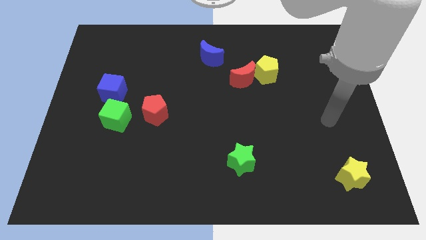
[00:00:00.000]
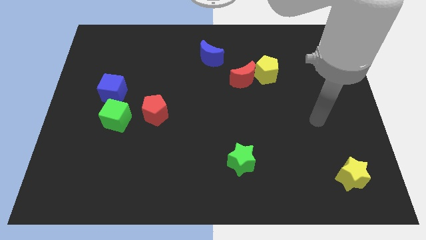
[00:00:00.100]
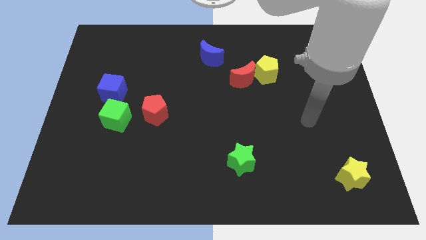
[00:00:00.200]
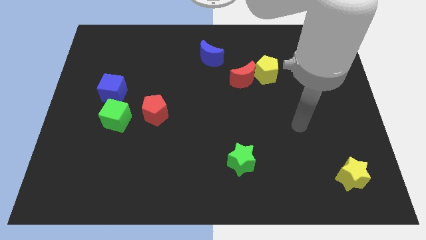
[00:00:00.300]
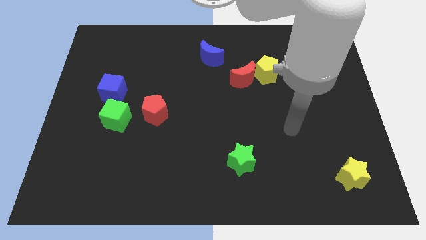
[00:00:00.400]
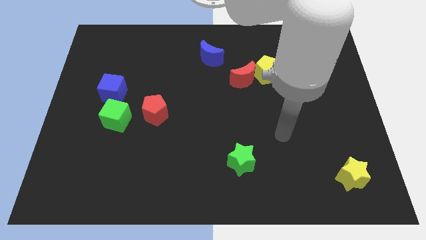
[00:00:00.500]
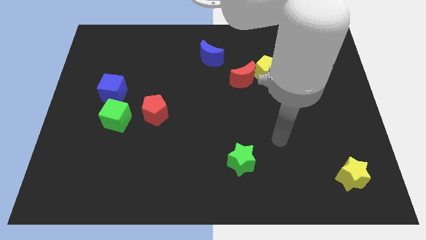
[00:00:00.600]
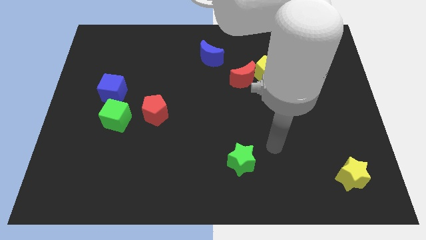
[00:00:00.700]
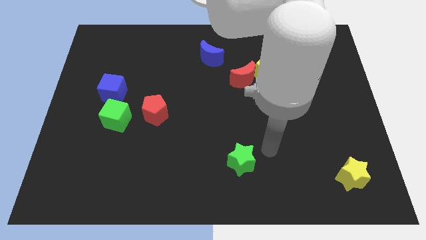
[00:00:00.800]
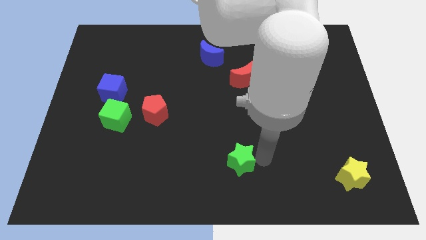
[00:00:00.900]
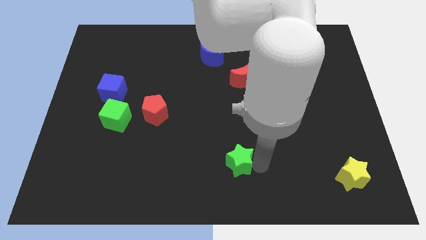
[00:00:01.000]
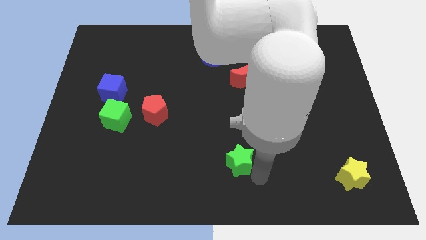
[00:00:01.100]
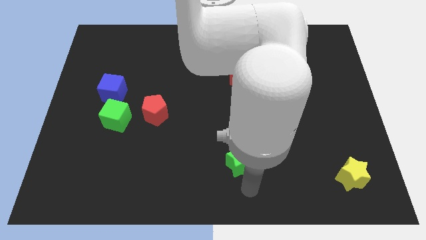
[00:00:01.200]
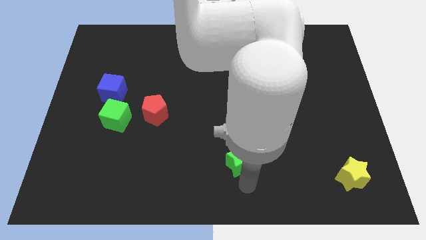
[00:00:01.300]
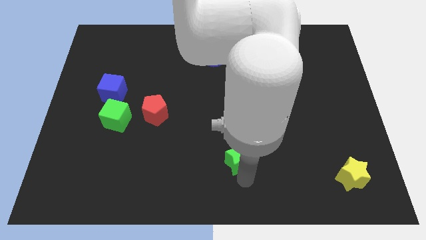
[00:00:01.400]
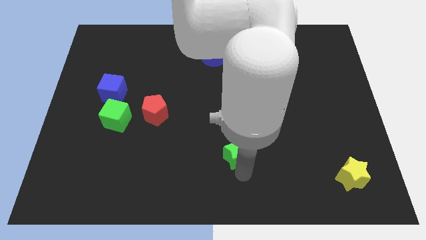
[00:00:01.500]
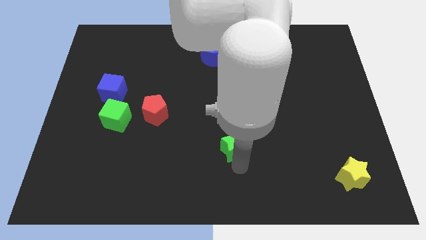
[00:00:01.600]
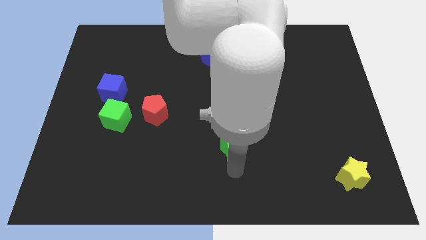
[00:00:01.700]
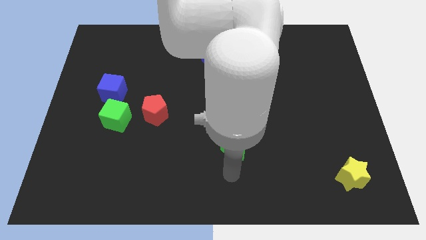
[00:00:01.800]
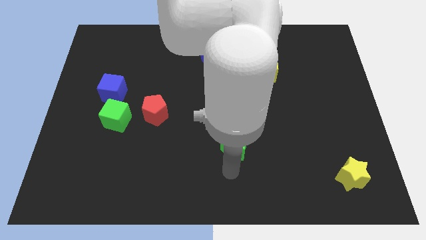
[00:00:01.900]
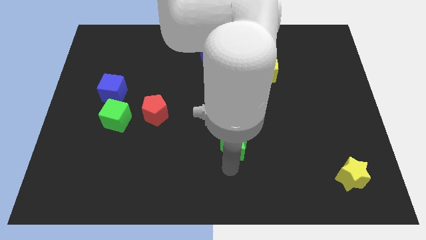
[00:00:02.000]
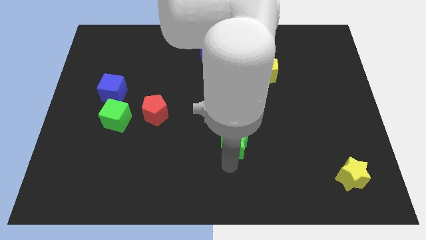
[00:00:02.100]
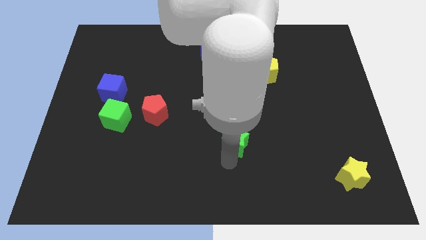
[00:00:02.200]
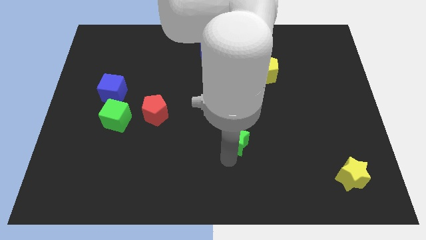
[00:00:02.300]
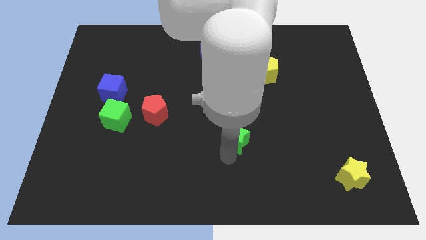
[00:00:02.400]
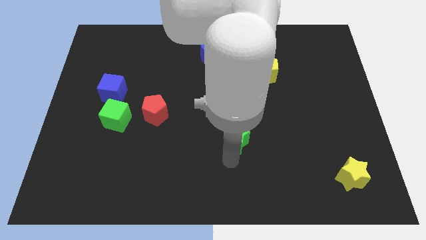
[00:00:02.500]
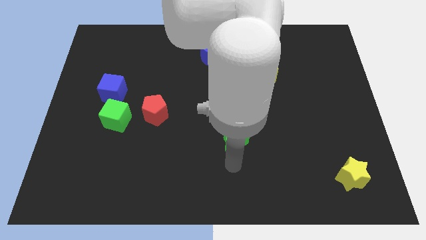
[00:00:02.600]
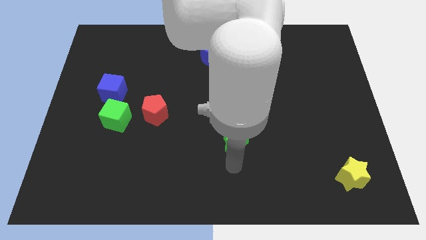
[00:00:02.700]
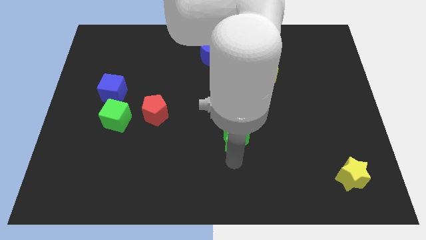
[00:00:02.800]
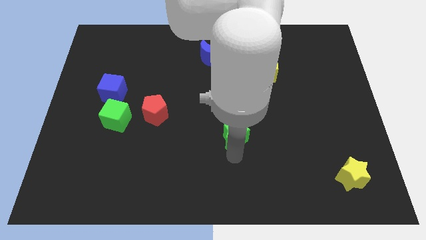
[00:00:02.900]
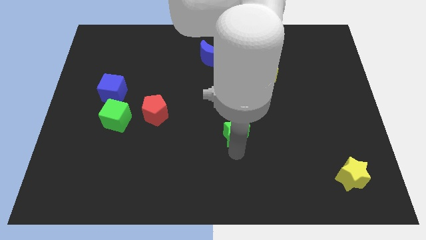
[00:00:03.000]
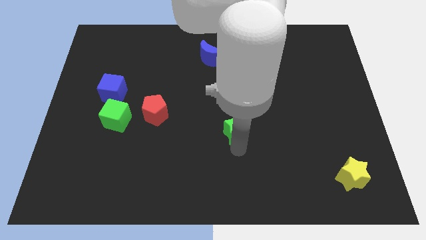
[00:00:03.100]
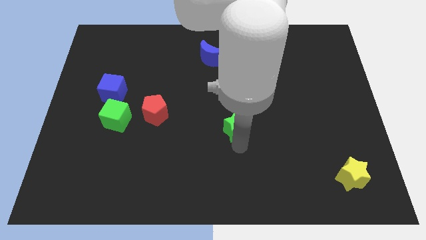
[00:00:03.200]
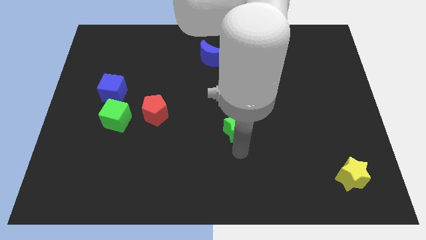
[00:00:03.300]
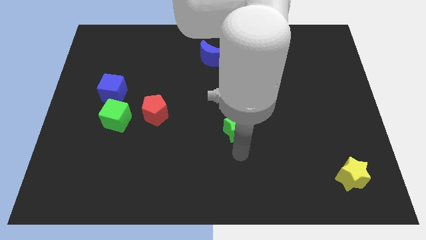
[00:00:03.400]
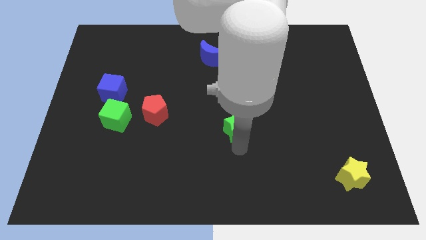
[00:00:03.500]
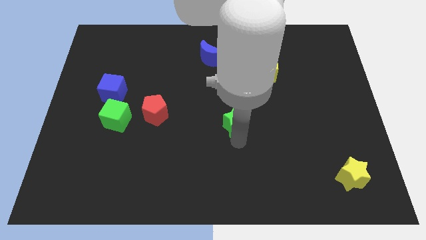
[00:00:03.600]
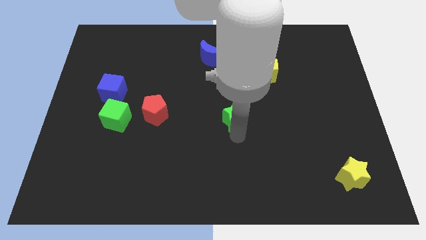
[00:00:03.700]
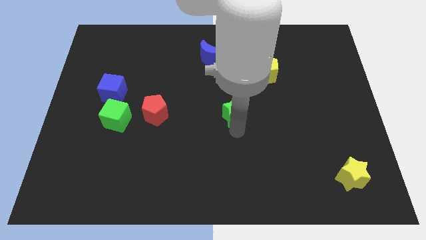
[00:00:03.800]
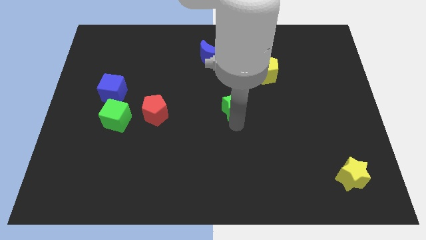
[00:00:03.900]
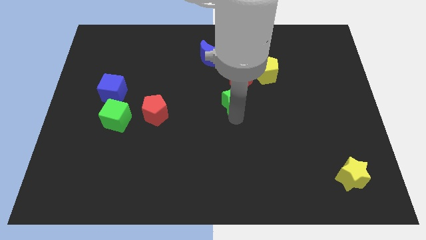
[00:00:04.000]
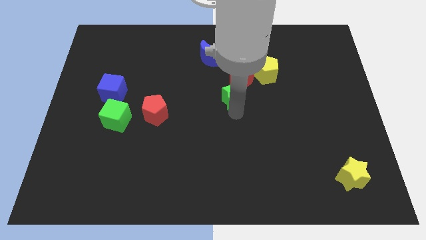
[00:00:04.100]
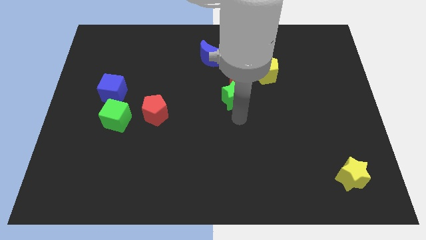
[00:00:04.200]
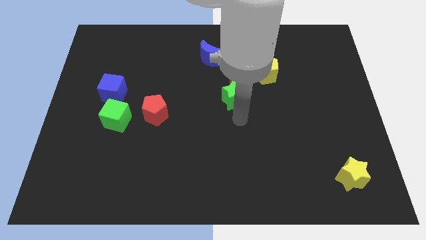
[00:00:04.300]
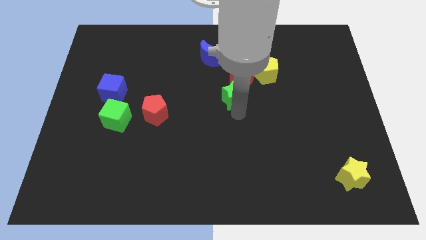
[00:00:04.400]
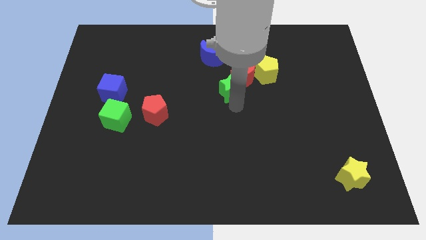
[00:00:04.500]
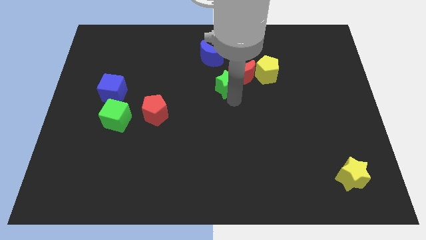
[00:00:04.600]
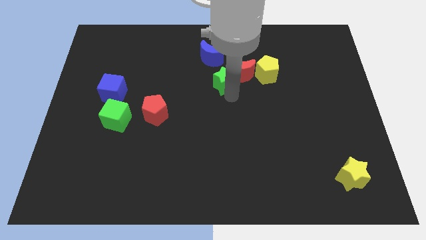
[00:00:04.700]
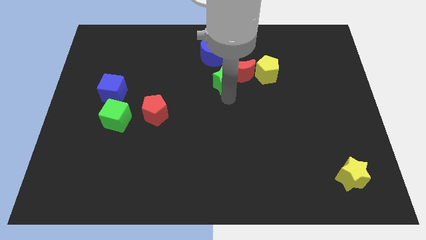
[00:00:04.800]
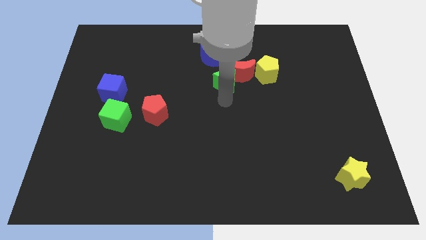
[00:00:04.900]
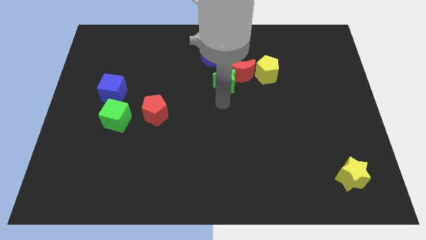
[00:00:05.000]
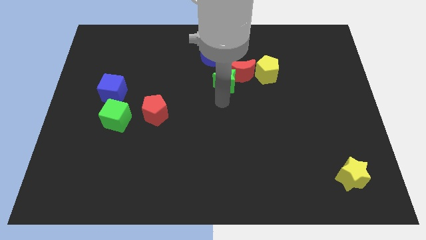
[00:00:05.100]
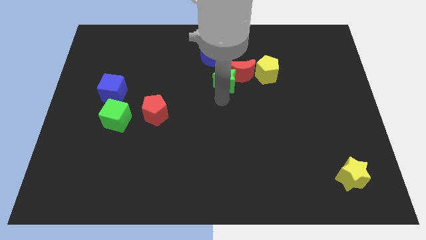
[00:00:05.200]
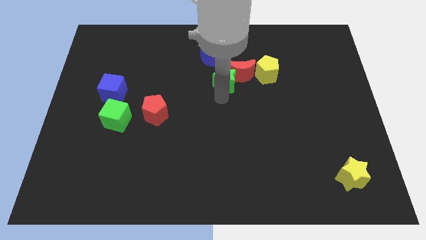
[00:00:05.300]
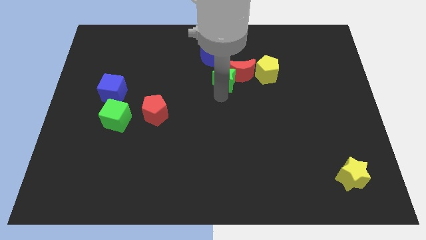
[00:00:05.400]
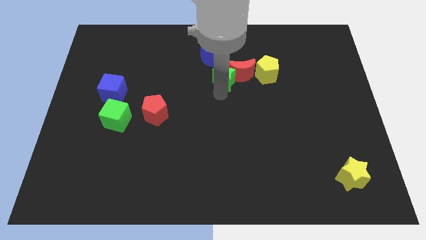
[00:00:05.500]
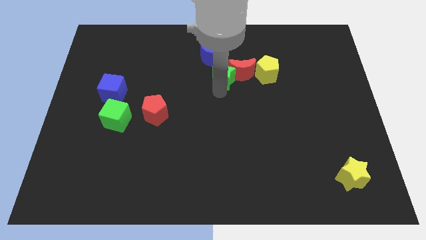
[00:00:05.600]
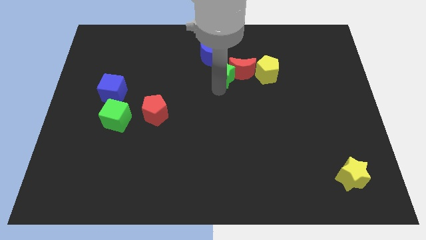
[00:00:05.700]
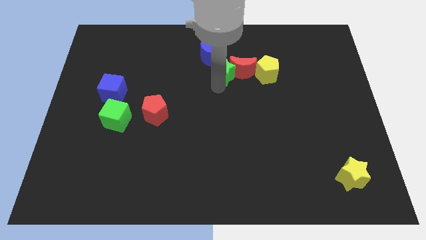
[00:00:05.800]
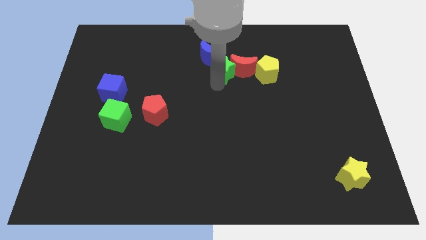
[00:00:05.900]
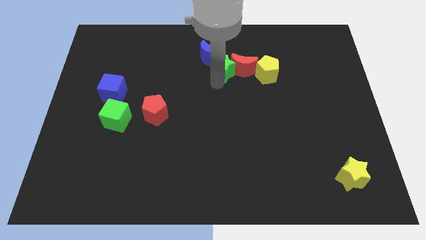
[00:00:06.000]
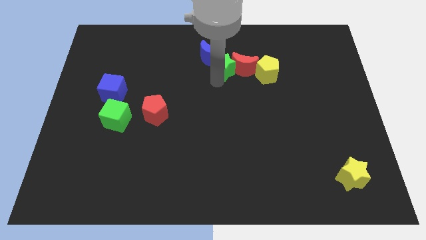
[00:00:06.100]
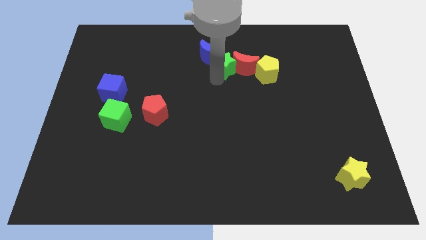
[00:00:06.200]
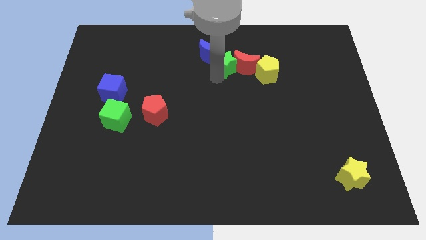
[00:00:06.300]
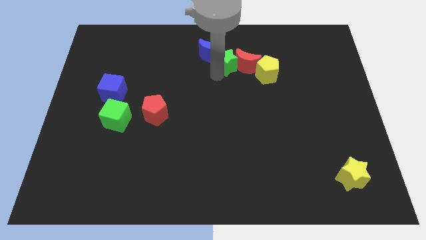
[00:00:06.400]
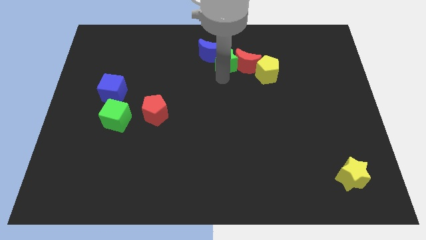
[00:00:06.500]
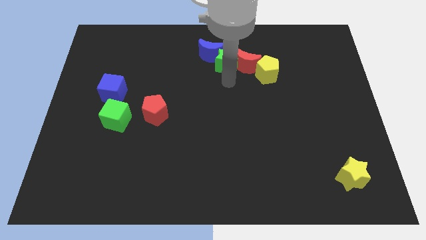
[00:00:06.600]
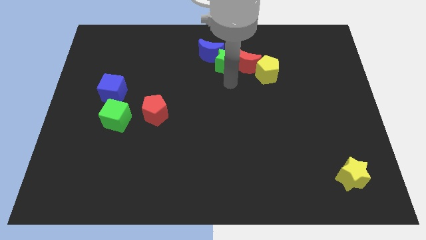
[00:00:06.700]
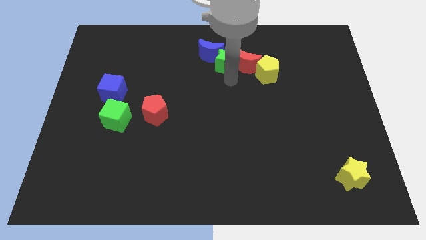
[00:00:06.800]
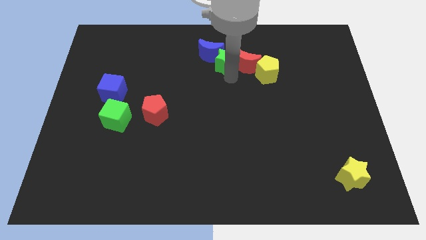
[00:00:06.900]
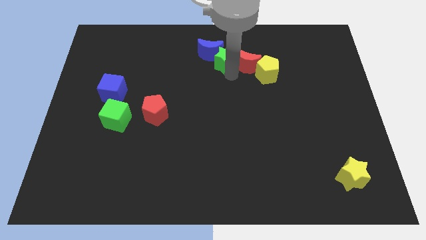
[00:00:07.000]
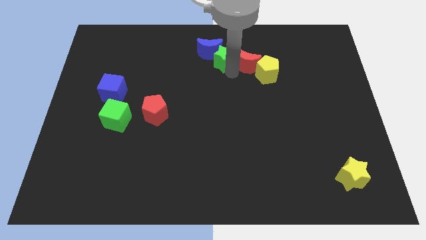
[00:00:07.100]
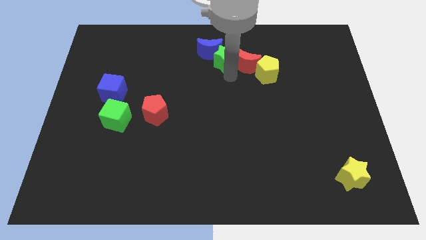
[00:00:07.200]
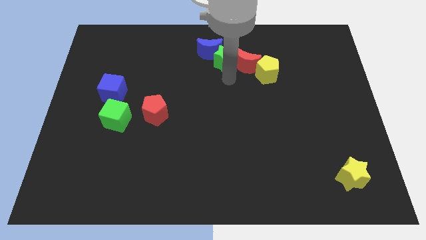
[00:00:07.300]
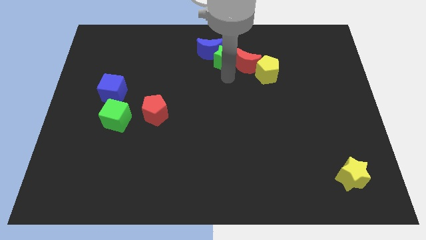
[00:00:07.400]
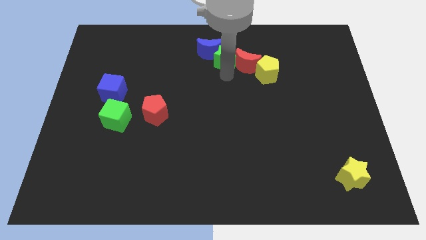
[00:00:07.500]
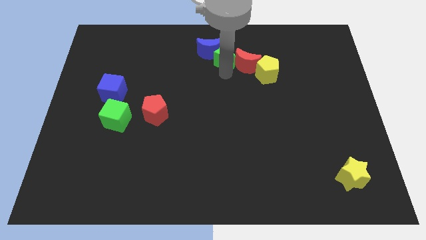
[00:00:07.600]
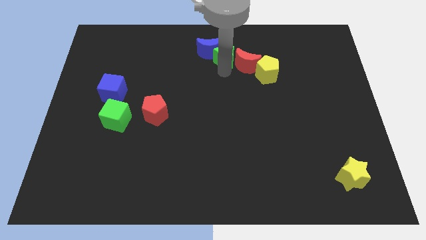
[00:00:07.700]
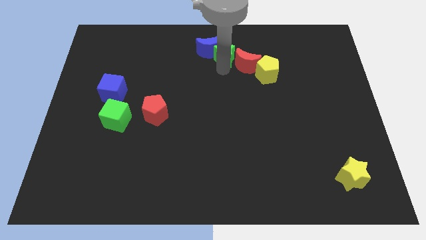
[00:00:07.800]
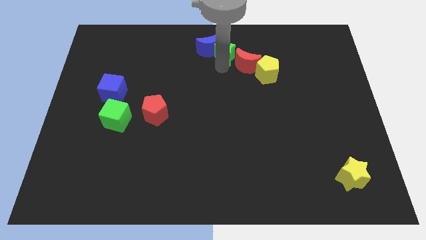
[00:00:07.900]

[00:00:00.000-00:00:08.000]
slide the green star to the top
